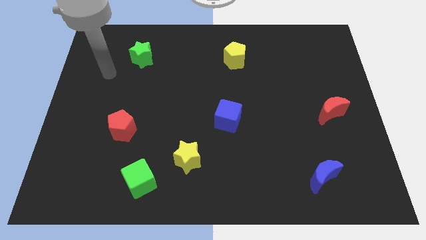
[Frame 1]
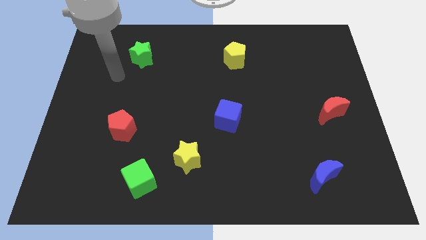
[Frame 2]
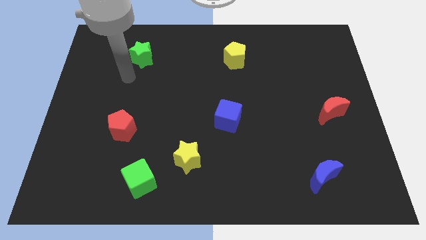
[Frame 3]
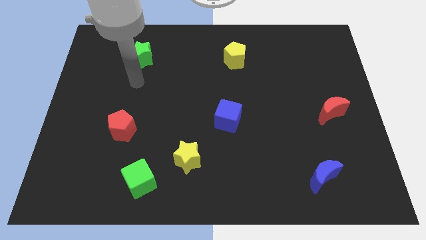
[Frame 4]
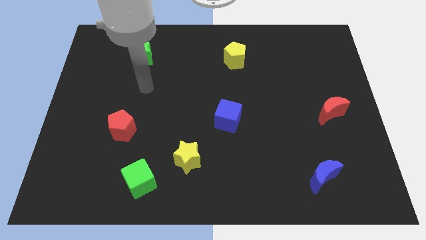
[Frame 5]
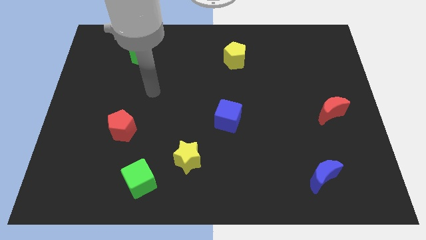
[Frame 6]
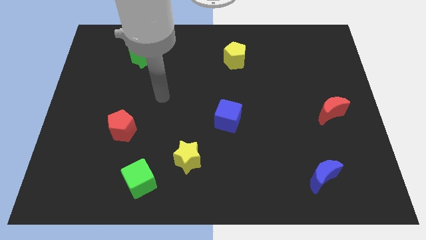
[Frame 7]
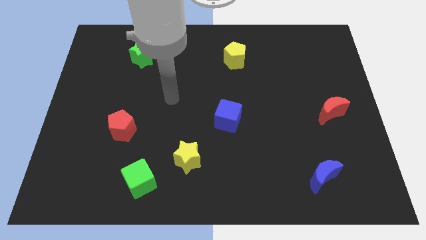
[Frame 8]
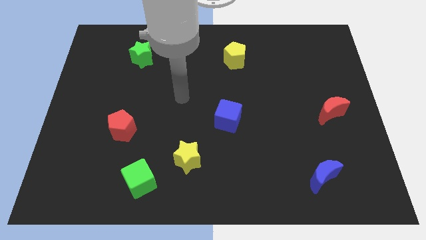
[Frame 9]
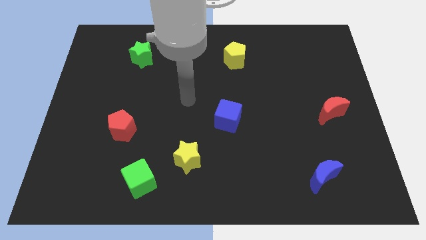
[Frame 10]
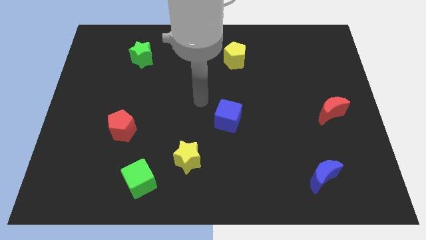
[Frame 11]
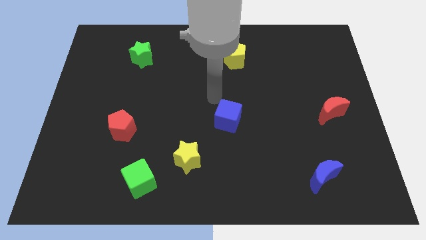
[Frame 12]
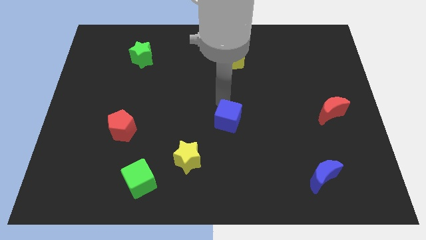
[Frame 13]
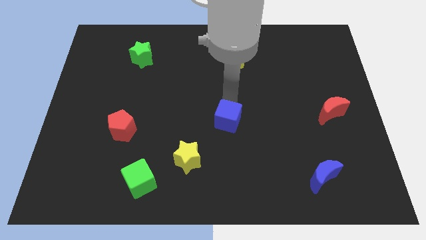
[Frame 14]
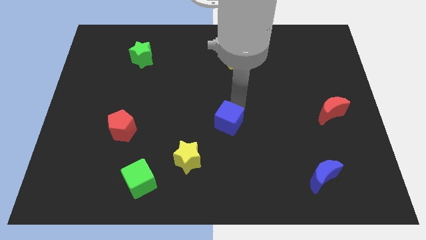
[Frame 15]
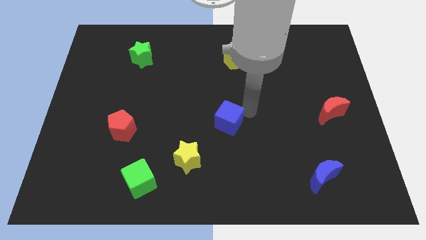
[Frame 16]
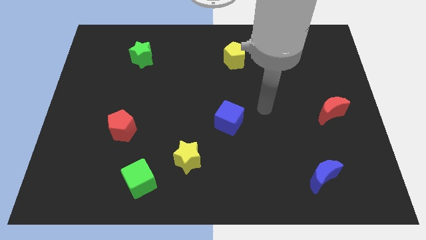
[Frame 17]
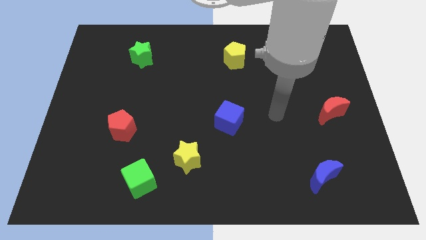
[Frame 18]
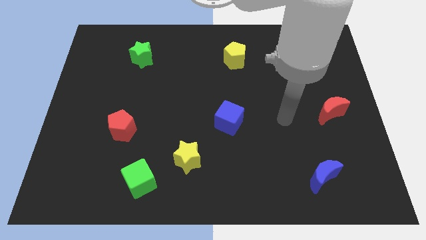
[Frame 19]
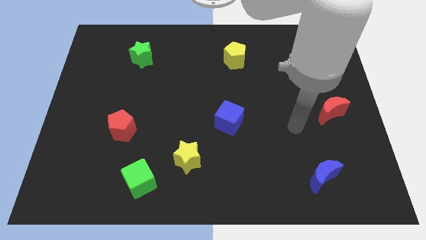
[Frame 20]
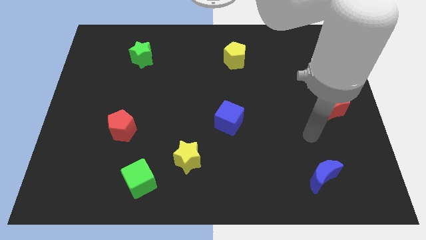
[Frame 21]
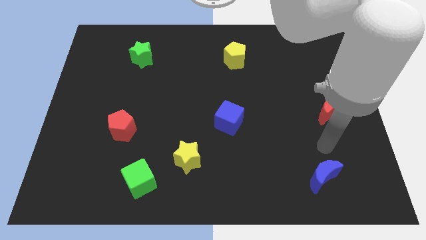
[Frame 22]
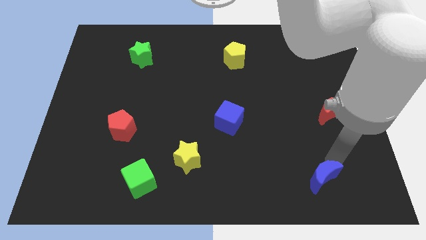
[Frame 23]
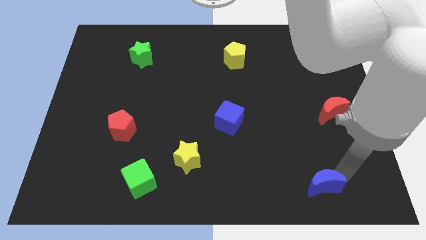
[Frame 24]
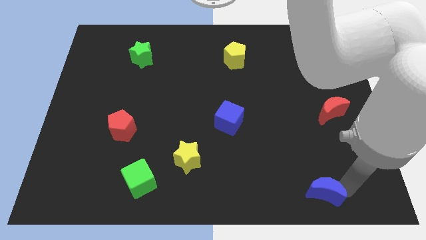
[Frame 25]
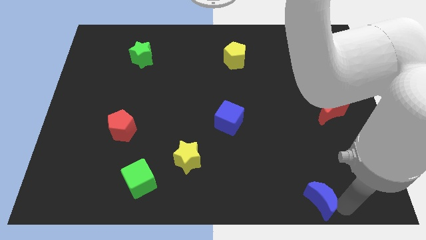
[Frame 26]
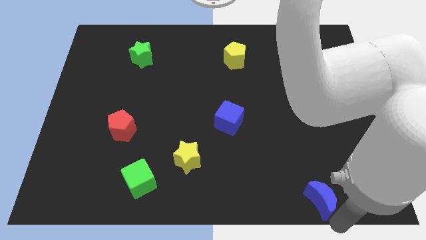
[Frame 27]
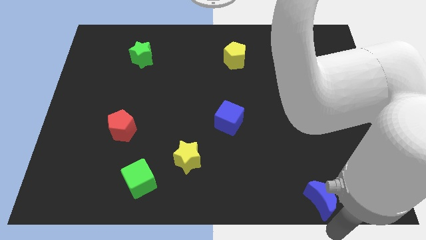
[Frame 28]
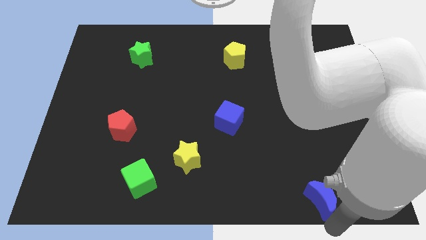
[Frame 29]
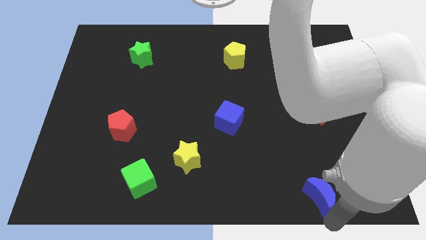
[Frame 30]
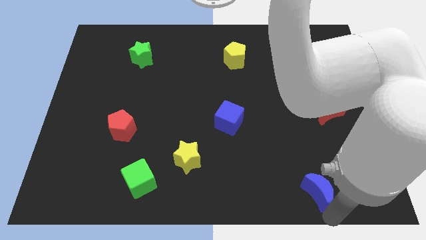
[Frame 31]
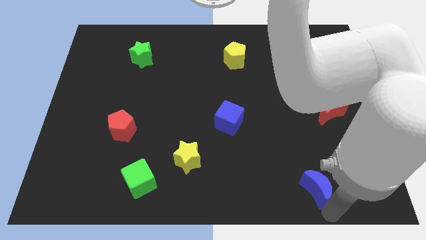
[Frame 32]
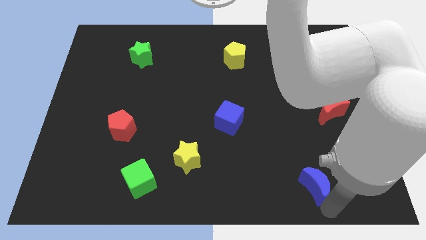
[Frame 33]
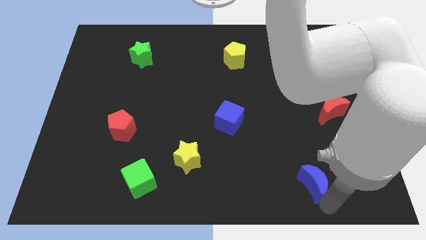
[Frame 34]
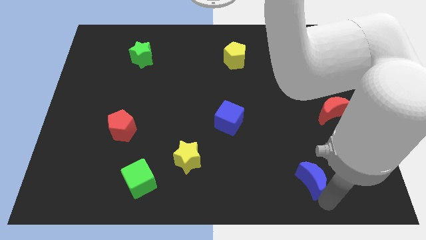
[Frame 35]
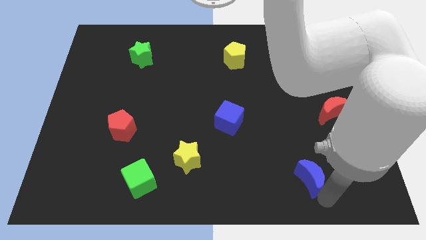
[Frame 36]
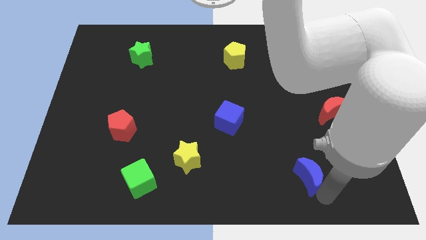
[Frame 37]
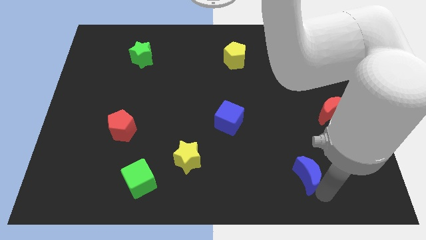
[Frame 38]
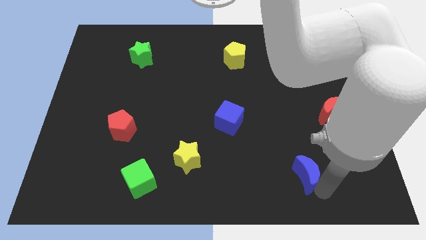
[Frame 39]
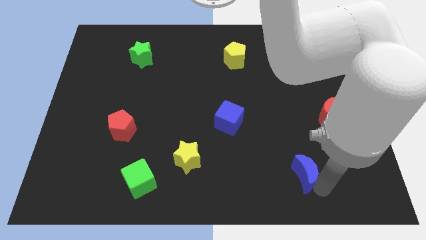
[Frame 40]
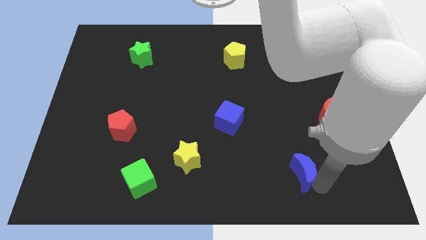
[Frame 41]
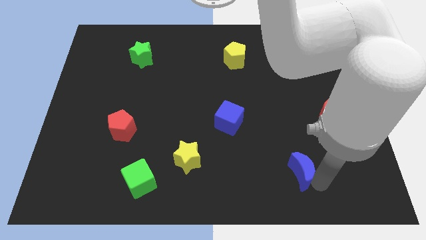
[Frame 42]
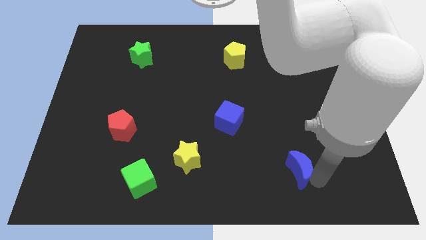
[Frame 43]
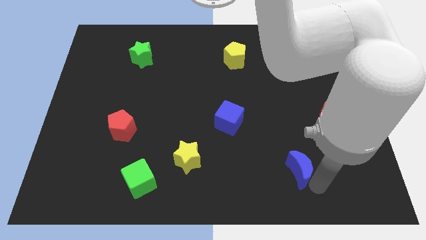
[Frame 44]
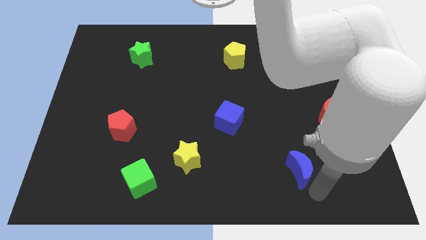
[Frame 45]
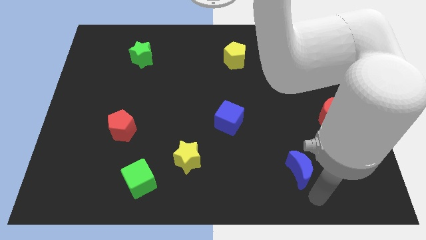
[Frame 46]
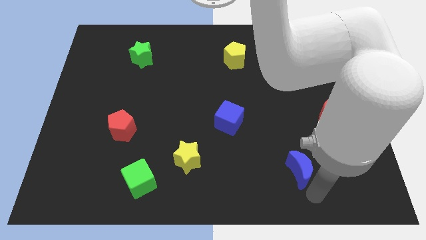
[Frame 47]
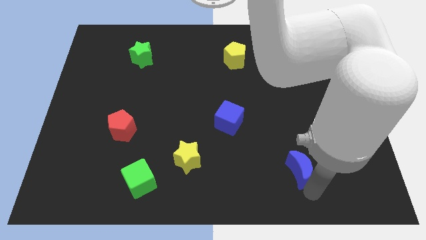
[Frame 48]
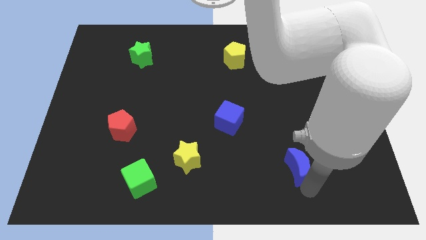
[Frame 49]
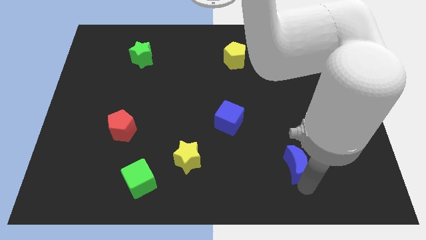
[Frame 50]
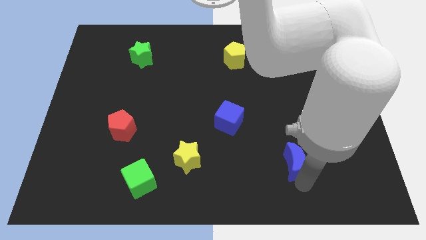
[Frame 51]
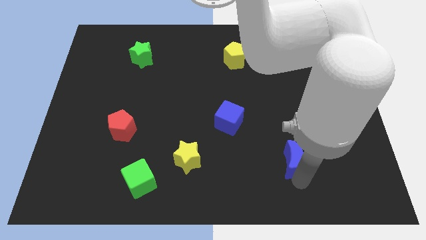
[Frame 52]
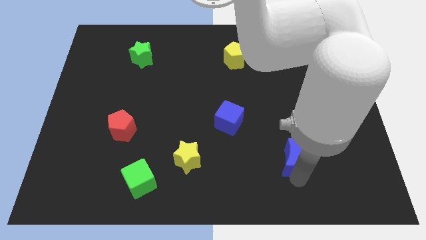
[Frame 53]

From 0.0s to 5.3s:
slightly move the blue moon up and then left

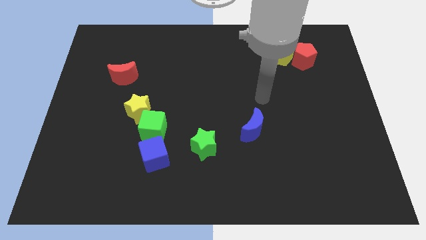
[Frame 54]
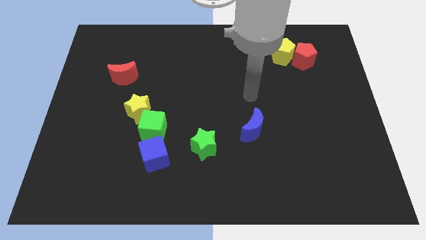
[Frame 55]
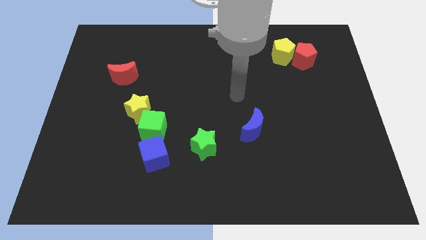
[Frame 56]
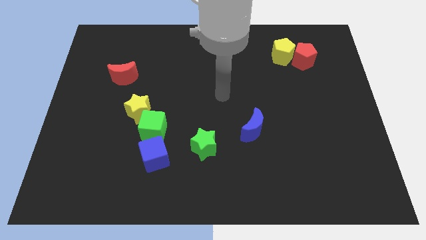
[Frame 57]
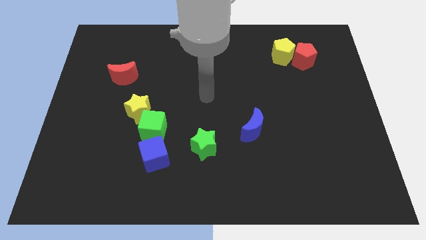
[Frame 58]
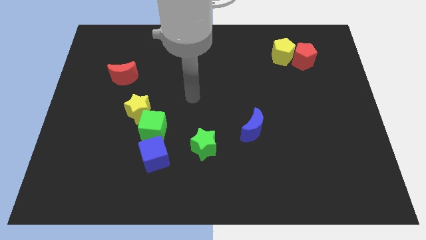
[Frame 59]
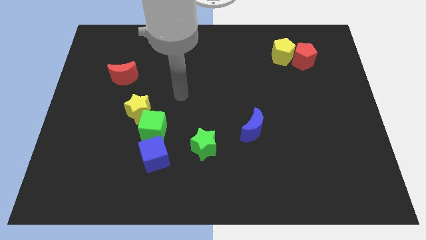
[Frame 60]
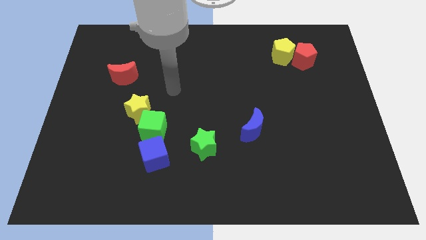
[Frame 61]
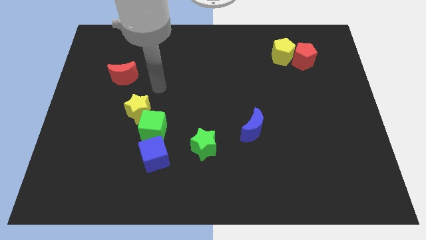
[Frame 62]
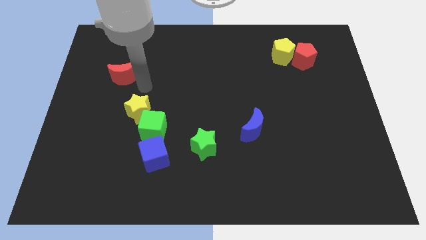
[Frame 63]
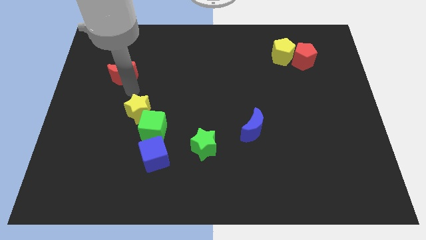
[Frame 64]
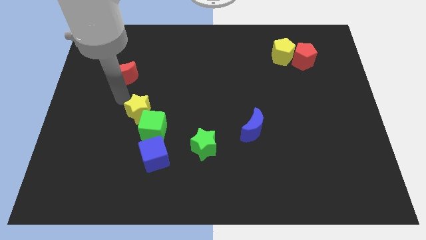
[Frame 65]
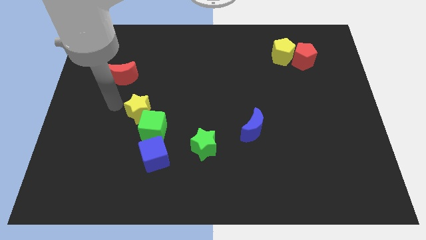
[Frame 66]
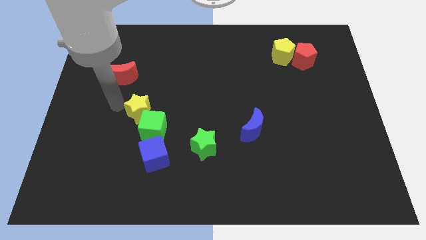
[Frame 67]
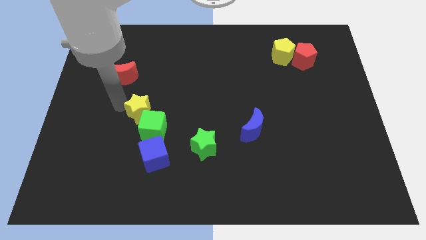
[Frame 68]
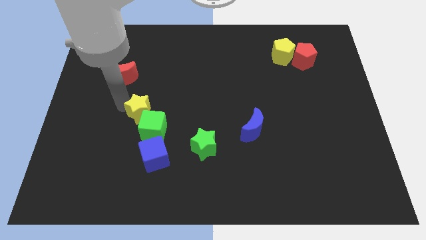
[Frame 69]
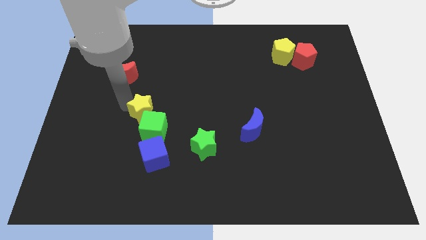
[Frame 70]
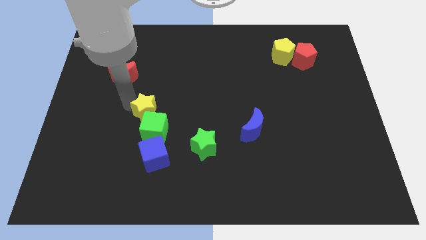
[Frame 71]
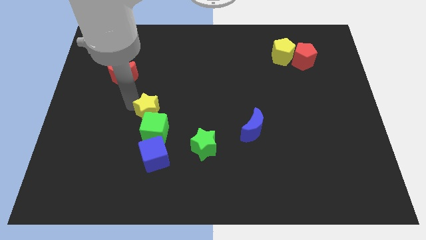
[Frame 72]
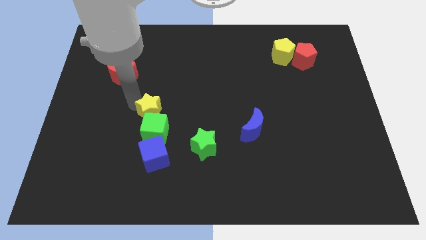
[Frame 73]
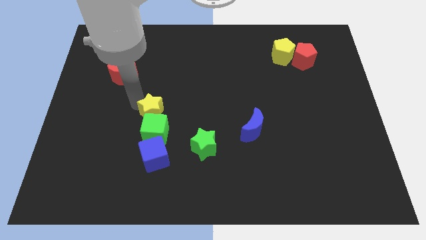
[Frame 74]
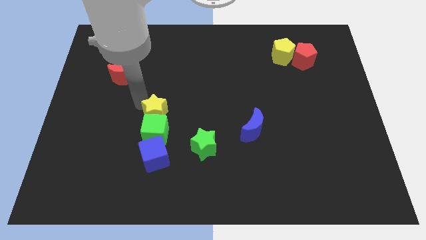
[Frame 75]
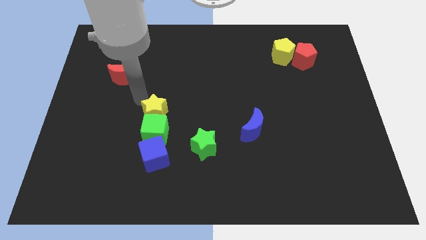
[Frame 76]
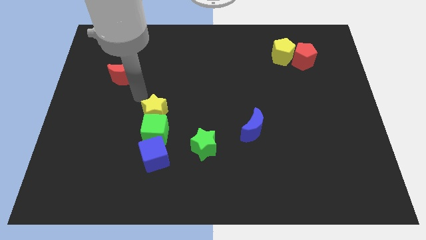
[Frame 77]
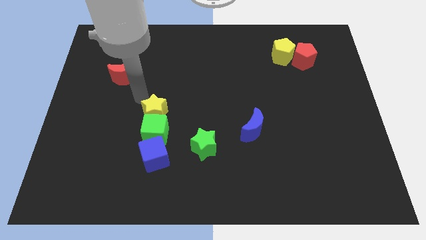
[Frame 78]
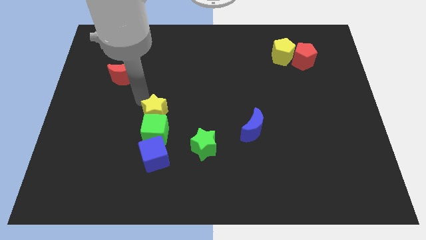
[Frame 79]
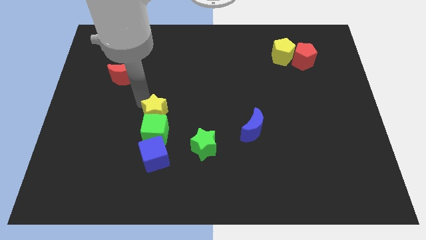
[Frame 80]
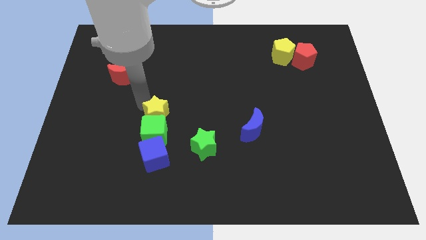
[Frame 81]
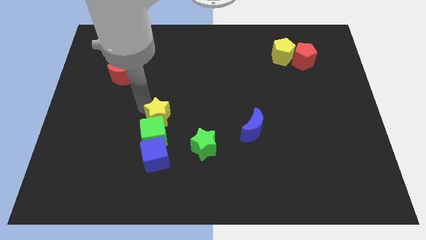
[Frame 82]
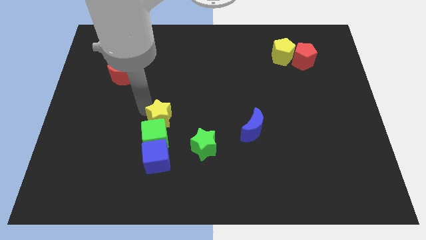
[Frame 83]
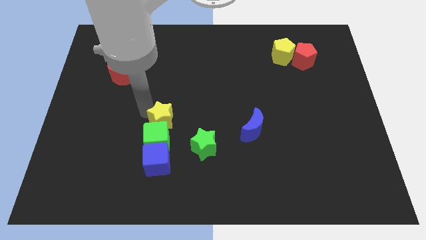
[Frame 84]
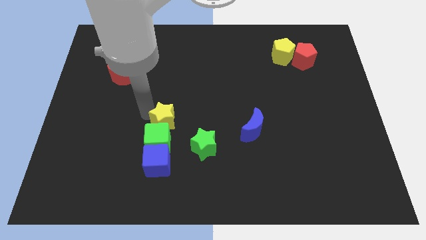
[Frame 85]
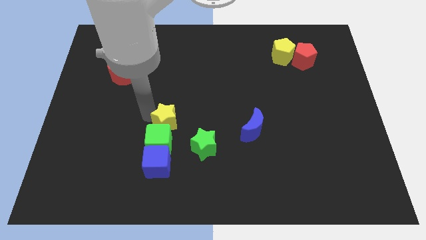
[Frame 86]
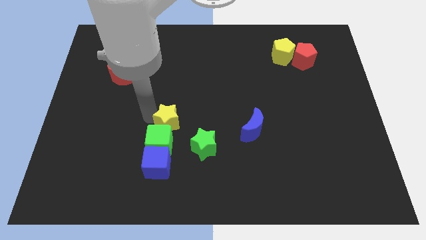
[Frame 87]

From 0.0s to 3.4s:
slide the yellow star slightly downwards and to the right
